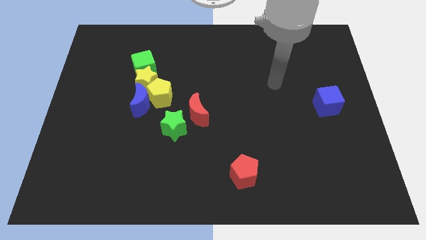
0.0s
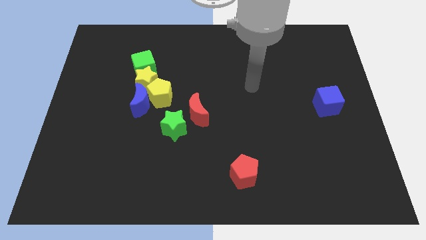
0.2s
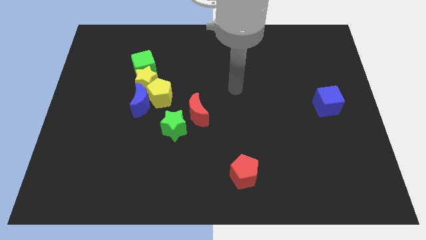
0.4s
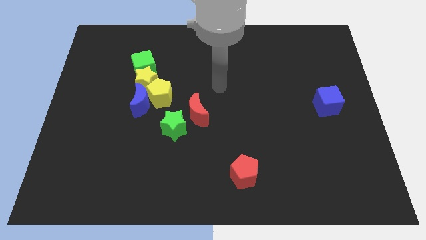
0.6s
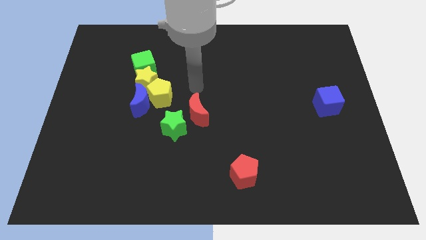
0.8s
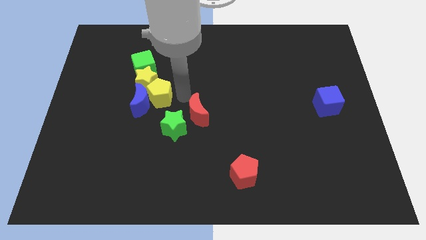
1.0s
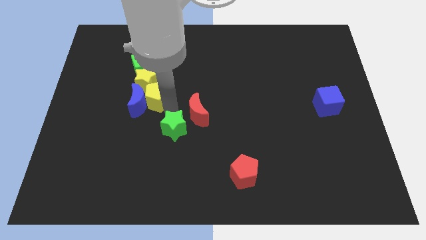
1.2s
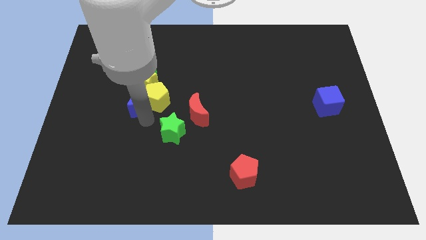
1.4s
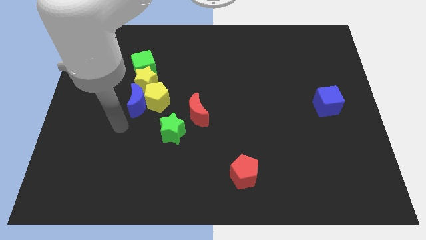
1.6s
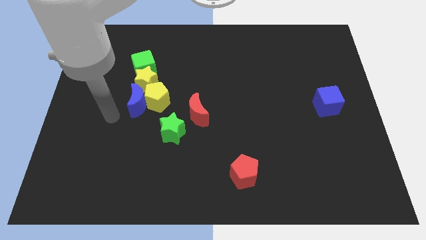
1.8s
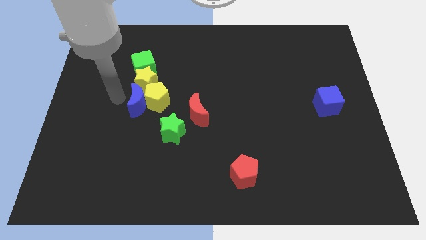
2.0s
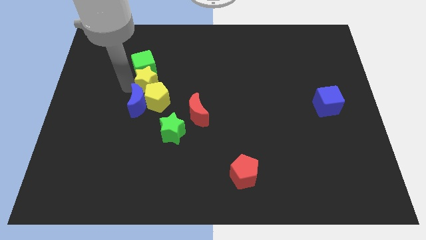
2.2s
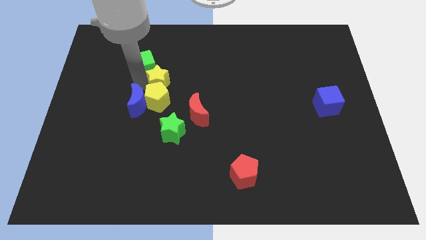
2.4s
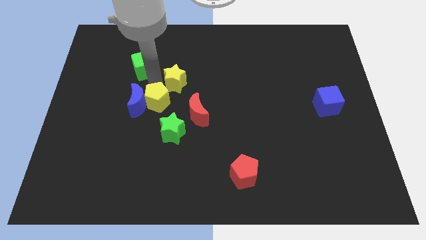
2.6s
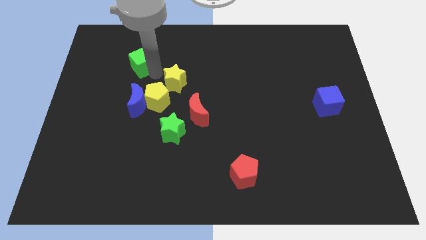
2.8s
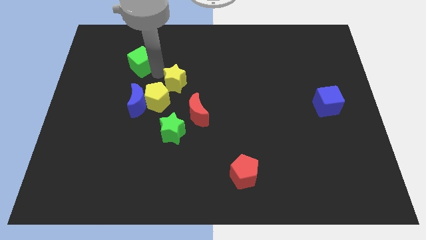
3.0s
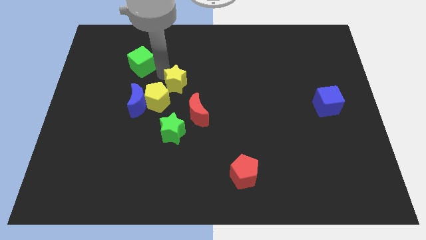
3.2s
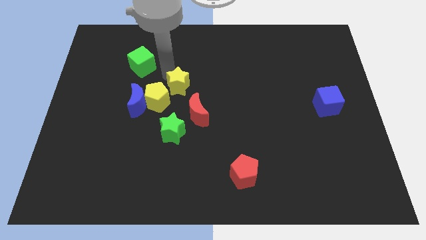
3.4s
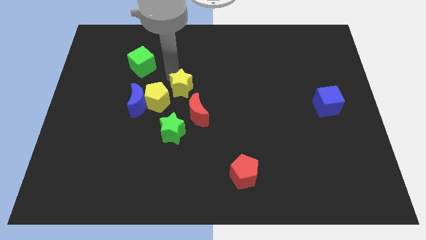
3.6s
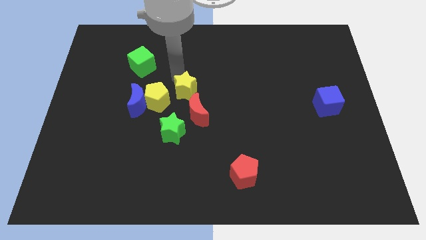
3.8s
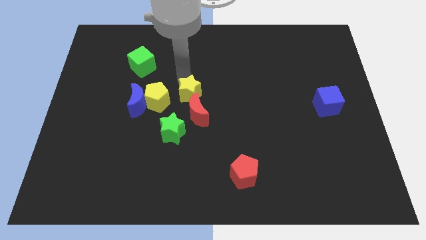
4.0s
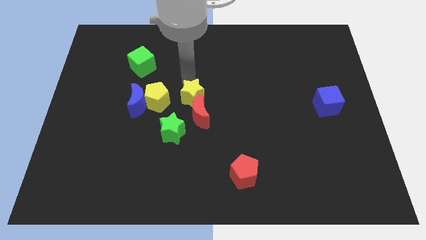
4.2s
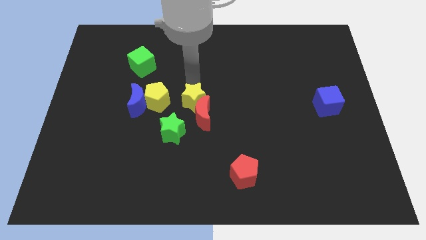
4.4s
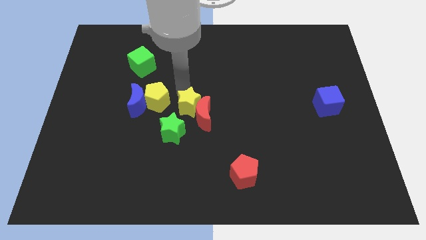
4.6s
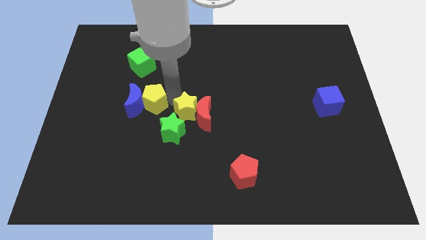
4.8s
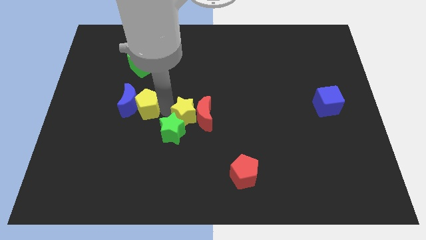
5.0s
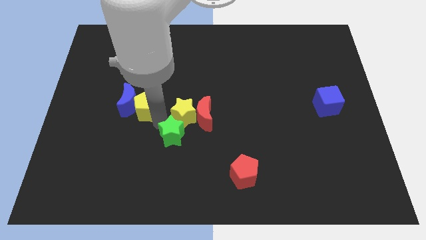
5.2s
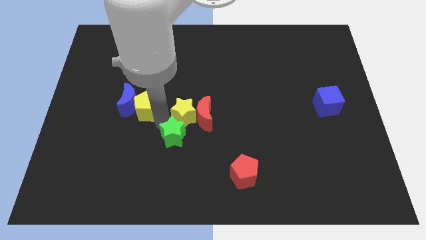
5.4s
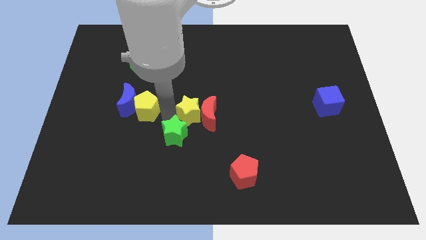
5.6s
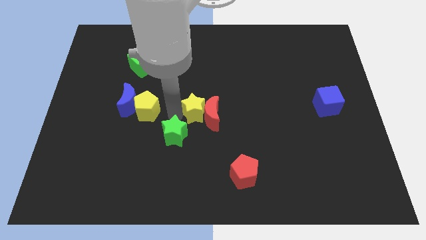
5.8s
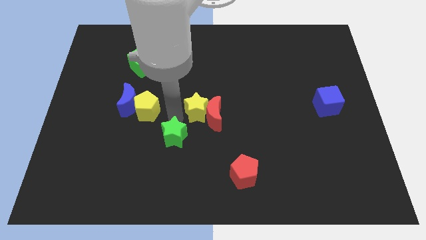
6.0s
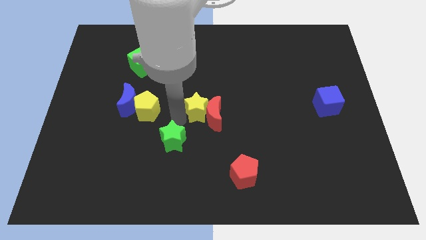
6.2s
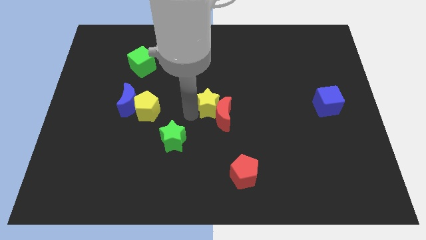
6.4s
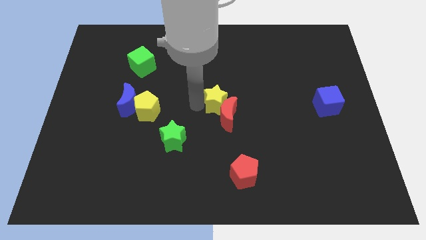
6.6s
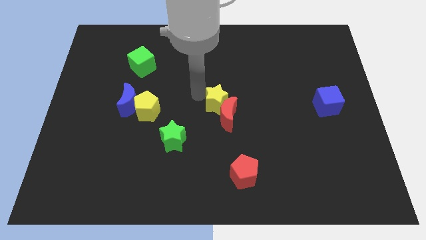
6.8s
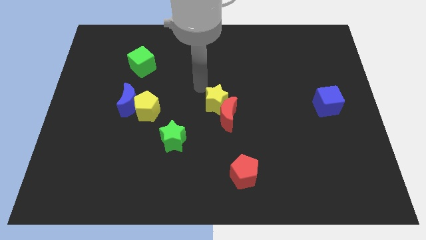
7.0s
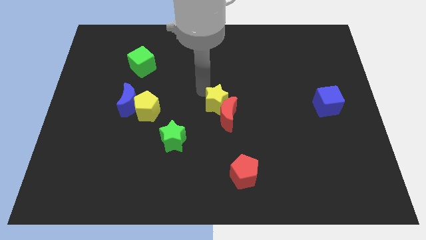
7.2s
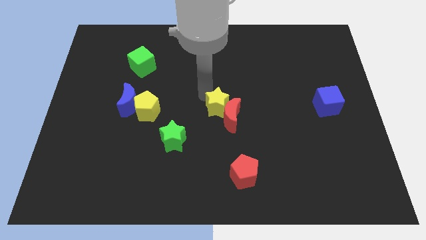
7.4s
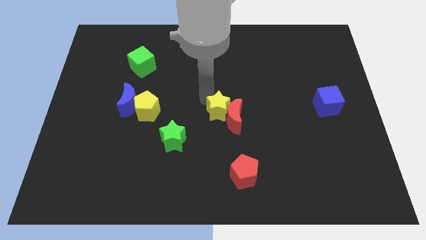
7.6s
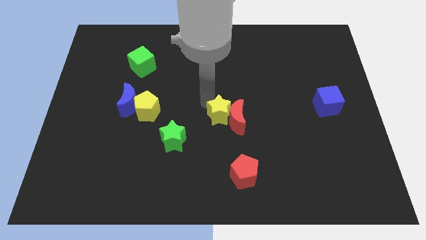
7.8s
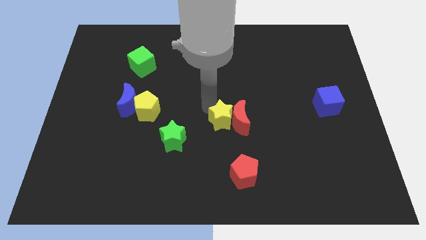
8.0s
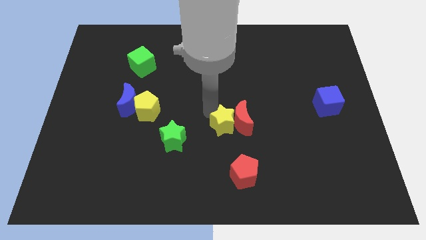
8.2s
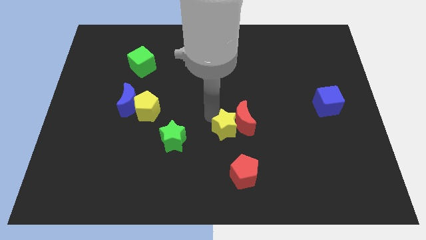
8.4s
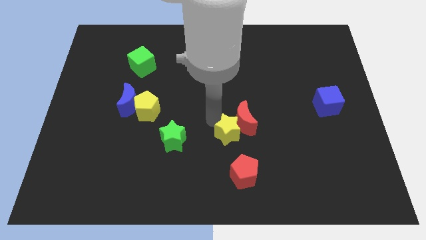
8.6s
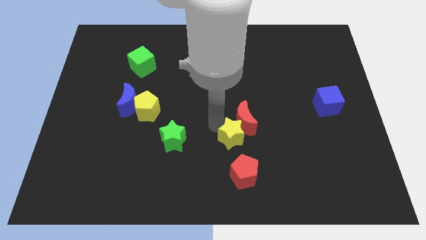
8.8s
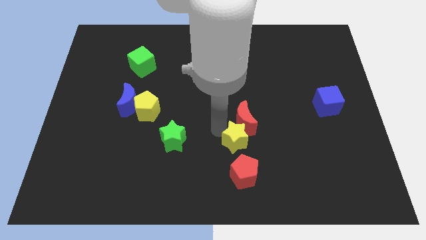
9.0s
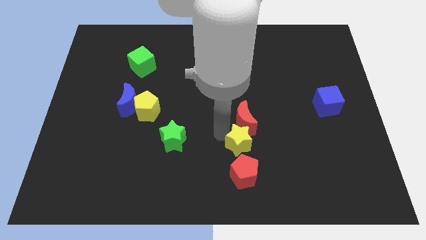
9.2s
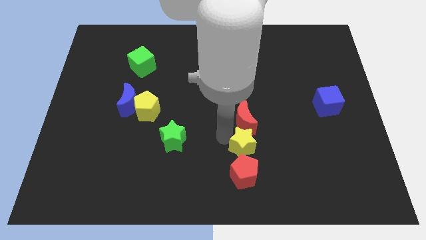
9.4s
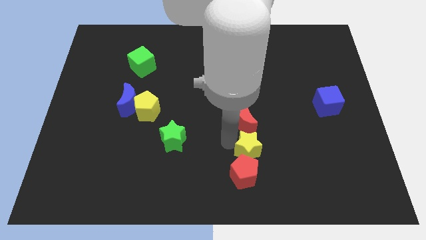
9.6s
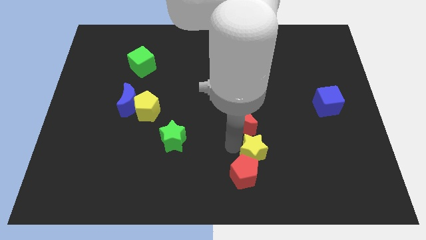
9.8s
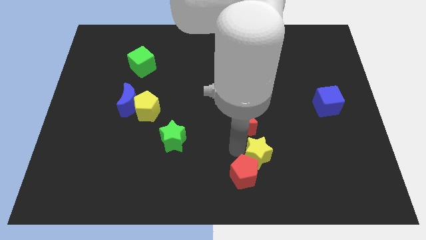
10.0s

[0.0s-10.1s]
put the yellow star right of the red pentagon

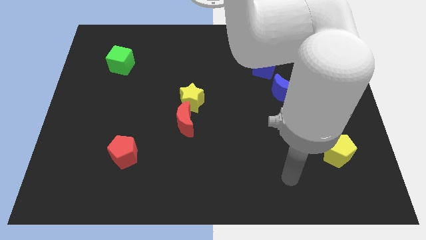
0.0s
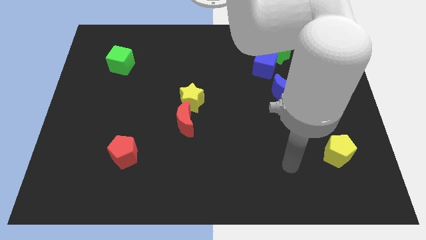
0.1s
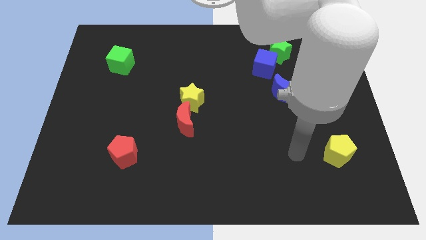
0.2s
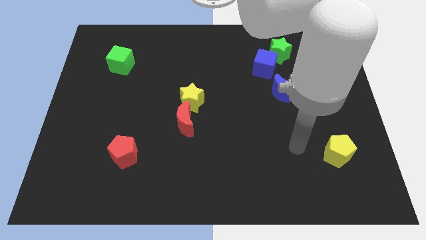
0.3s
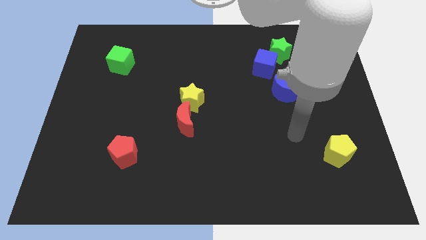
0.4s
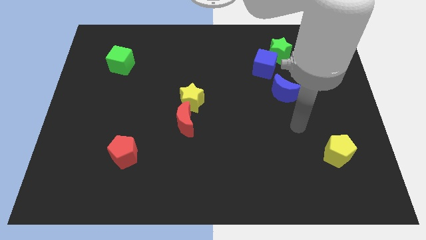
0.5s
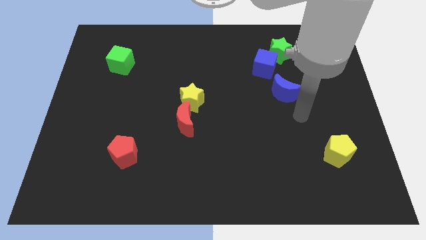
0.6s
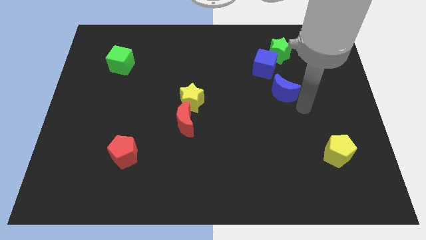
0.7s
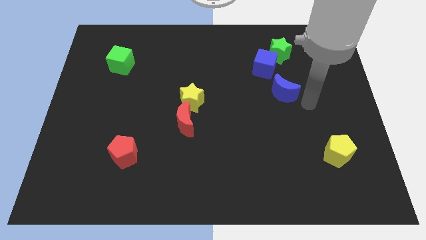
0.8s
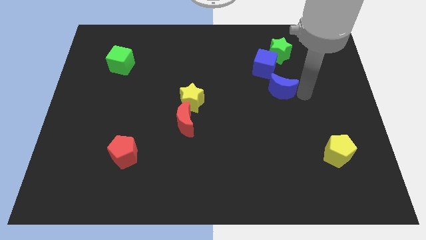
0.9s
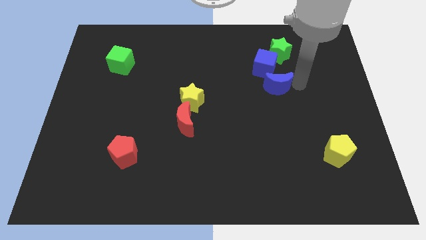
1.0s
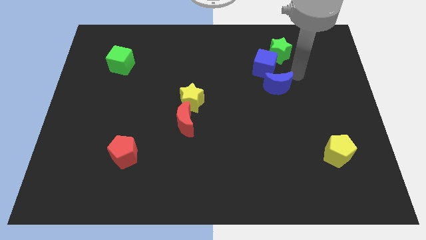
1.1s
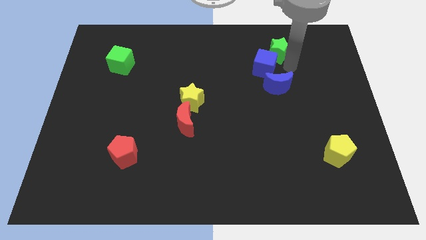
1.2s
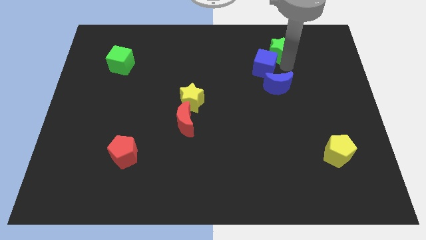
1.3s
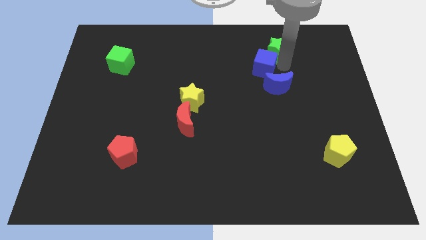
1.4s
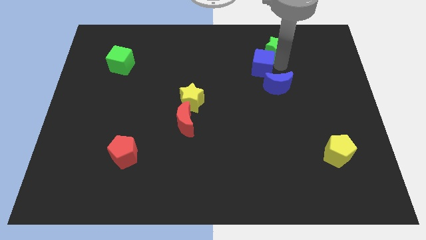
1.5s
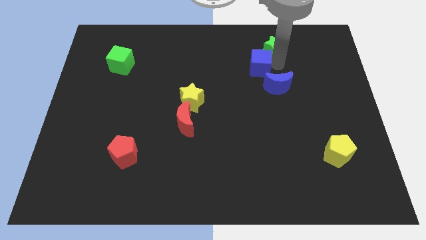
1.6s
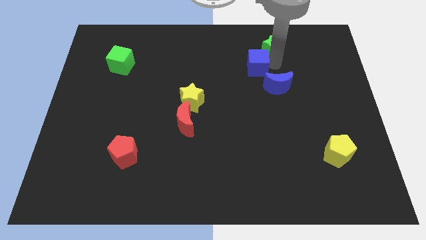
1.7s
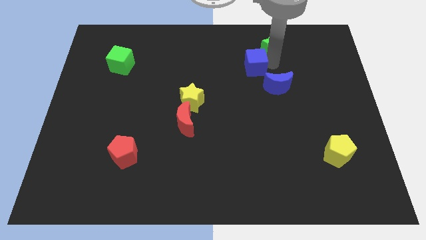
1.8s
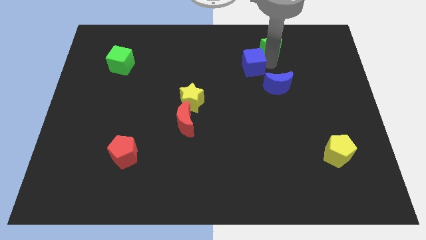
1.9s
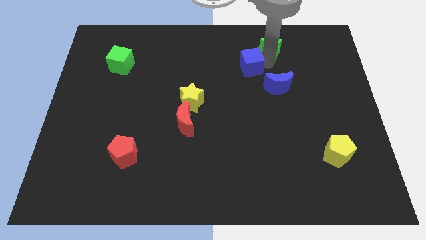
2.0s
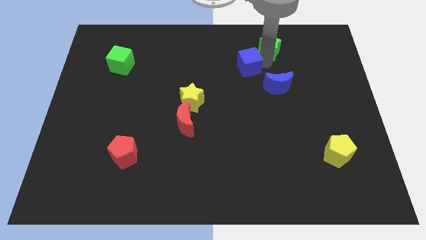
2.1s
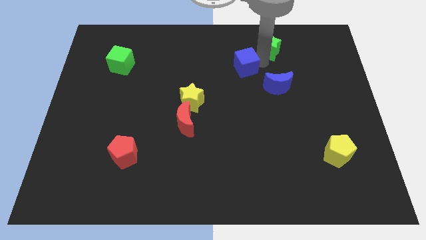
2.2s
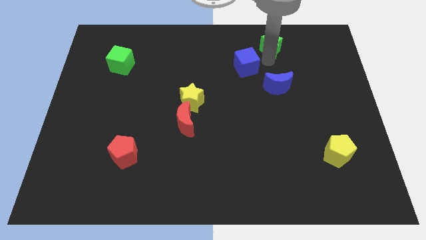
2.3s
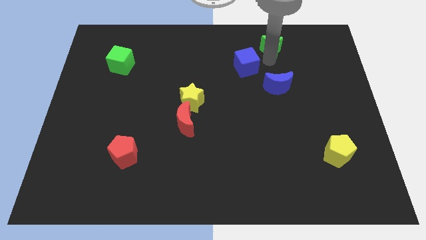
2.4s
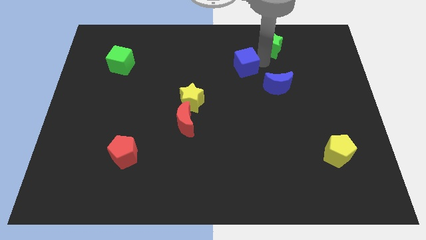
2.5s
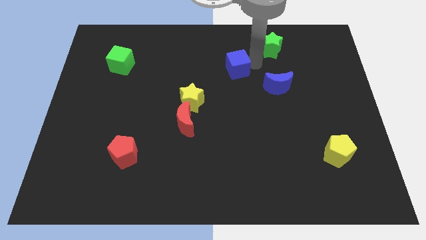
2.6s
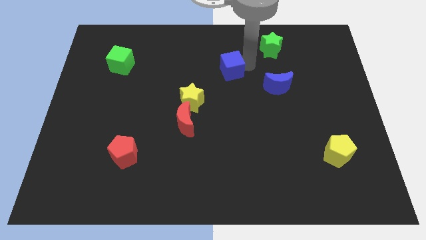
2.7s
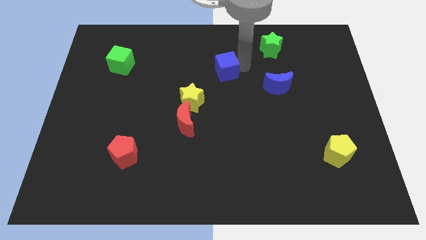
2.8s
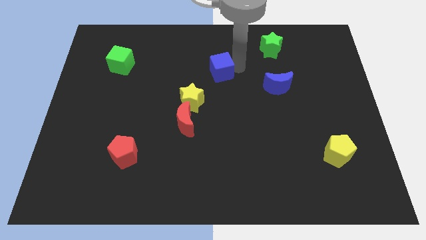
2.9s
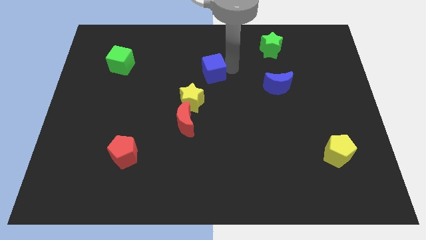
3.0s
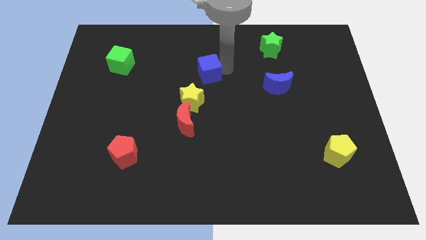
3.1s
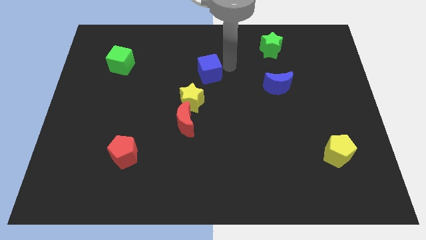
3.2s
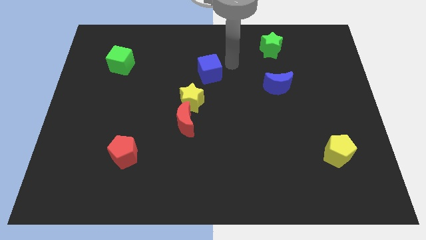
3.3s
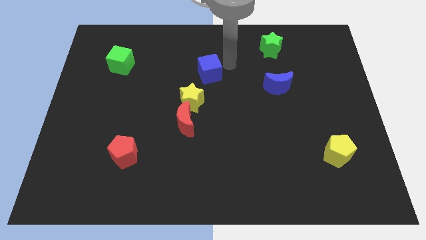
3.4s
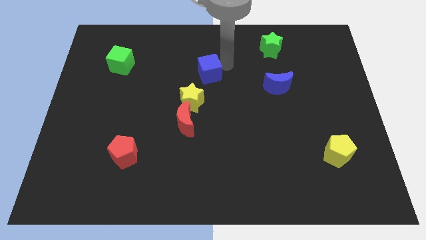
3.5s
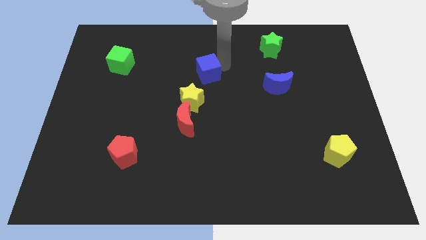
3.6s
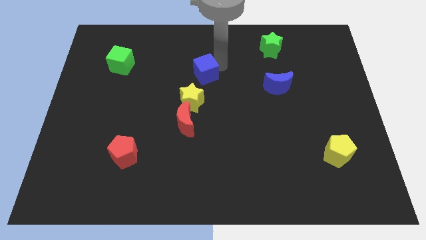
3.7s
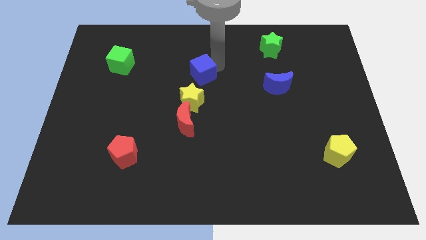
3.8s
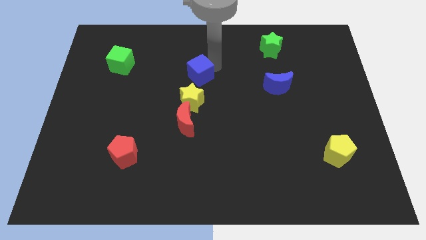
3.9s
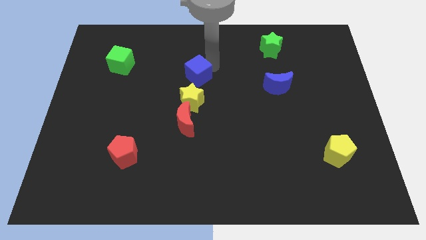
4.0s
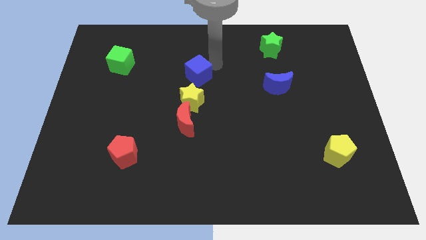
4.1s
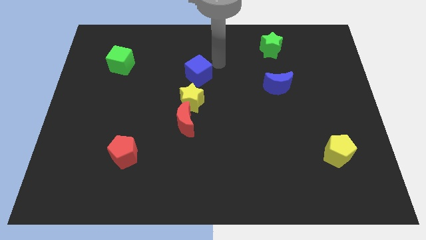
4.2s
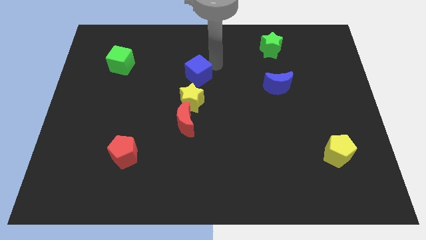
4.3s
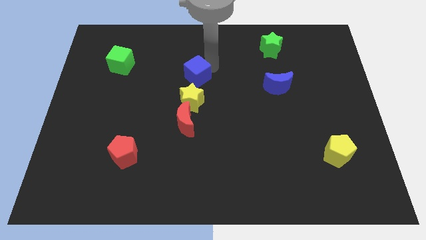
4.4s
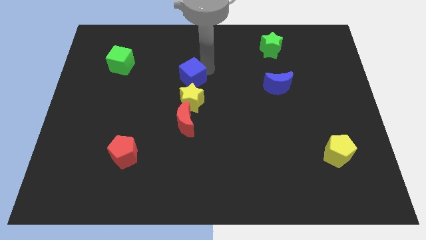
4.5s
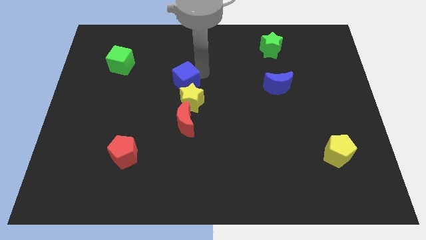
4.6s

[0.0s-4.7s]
move the blue cube to the top left of the yellow star
